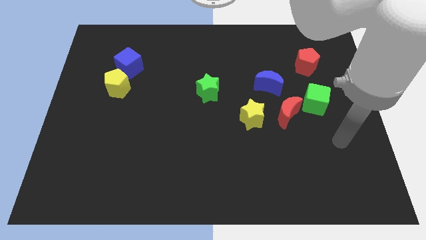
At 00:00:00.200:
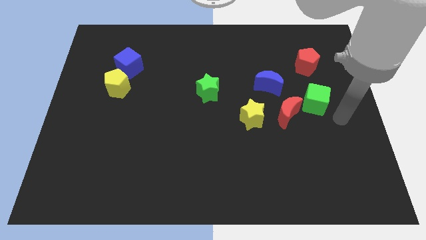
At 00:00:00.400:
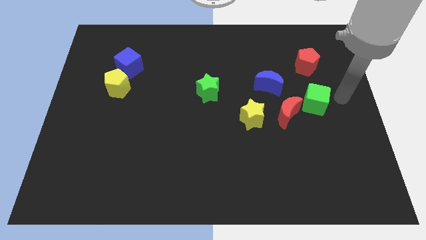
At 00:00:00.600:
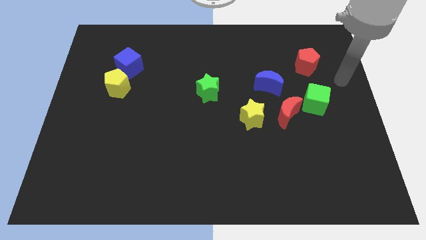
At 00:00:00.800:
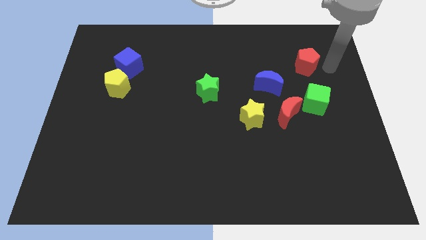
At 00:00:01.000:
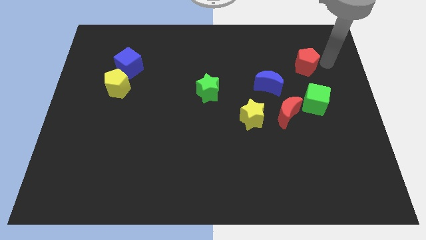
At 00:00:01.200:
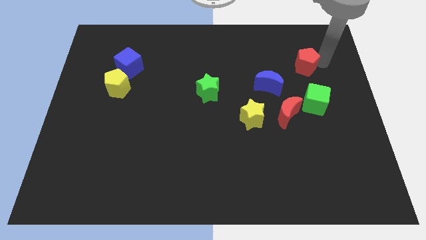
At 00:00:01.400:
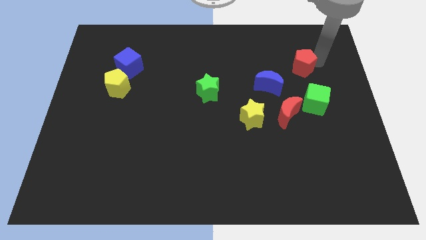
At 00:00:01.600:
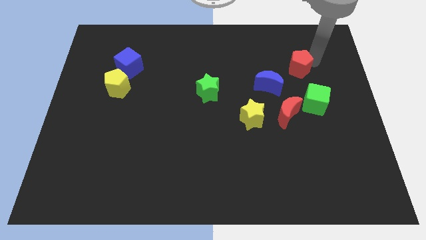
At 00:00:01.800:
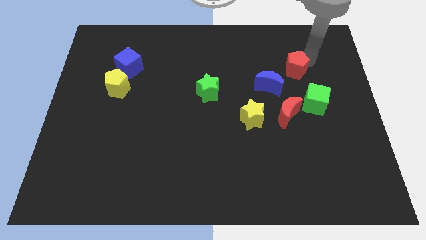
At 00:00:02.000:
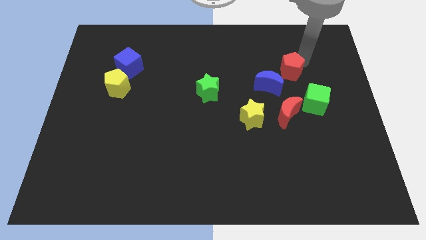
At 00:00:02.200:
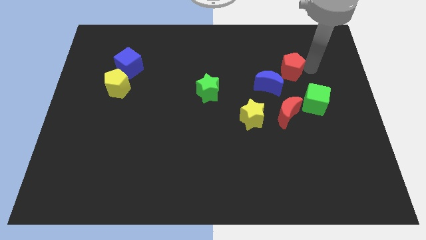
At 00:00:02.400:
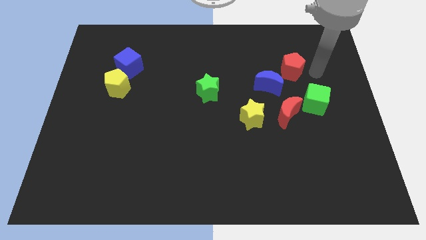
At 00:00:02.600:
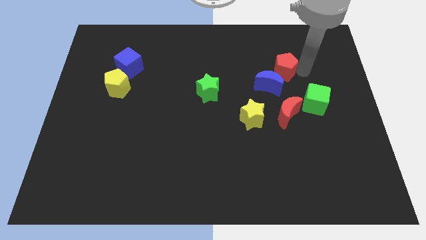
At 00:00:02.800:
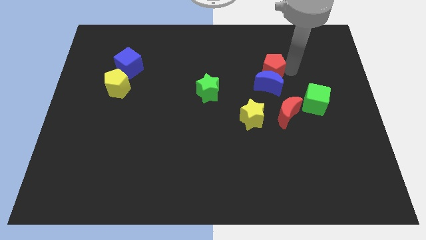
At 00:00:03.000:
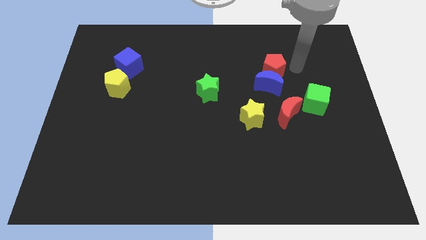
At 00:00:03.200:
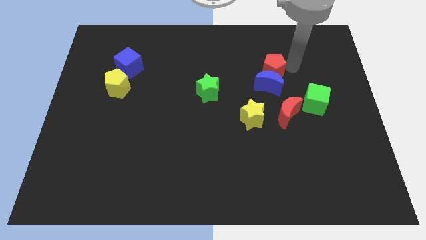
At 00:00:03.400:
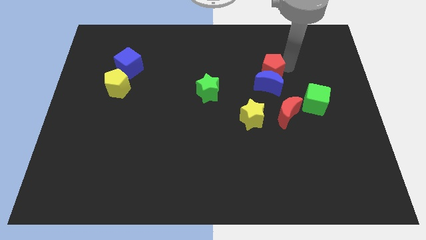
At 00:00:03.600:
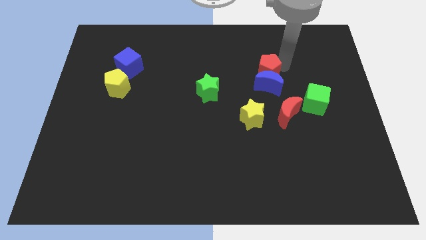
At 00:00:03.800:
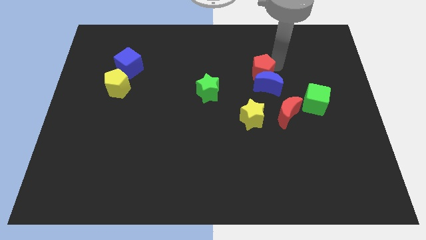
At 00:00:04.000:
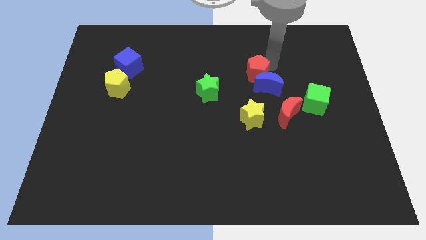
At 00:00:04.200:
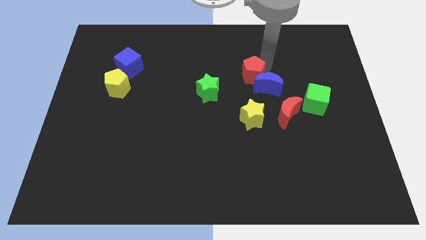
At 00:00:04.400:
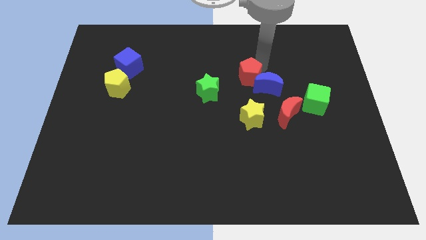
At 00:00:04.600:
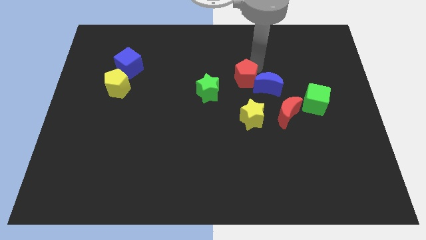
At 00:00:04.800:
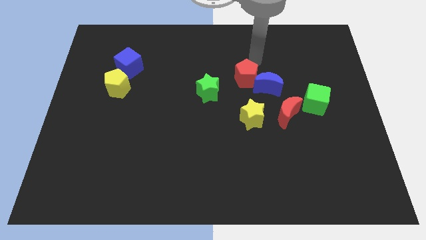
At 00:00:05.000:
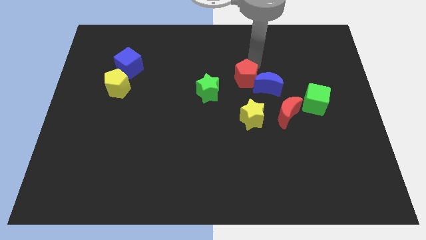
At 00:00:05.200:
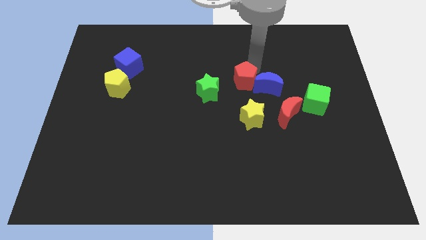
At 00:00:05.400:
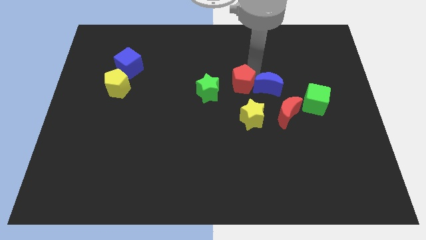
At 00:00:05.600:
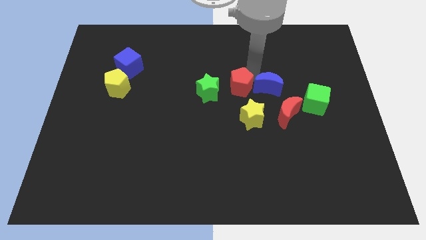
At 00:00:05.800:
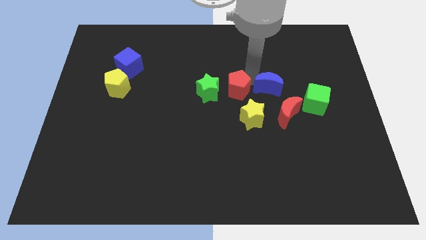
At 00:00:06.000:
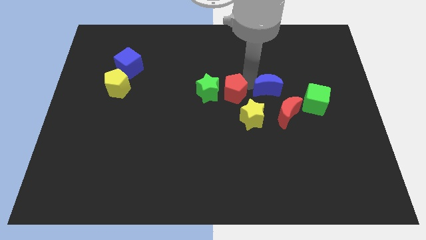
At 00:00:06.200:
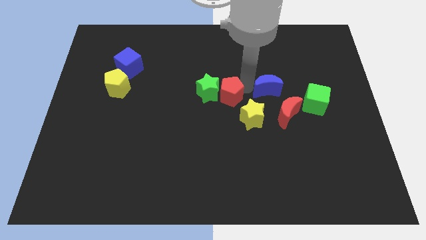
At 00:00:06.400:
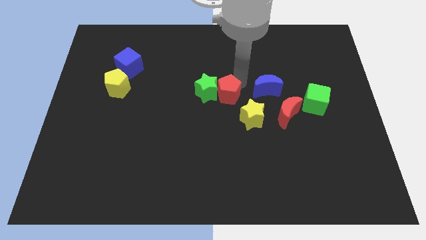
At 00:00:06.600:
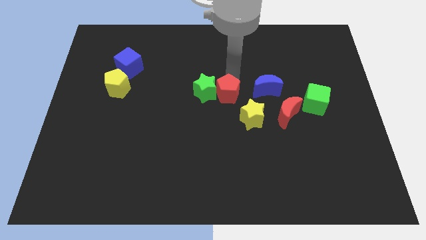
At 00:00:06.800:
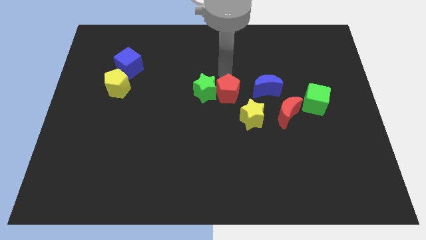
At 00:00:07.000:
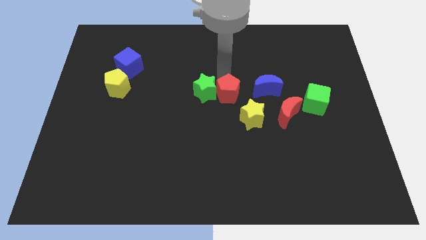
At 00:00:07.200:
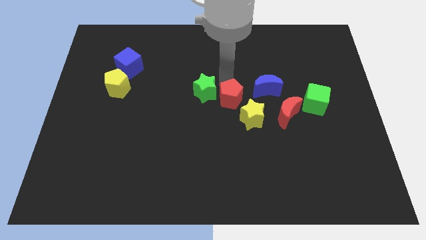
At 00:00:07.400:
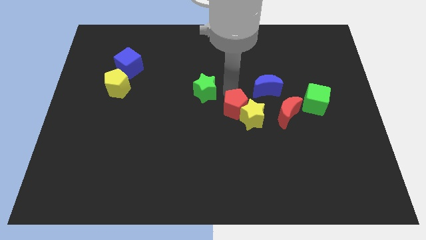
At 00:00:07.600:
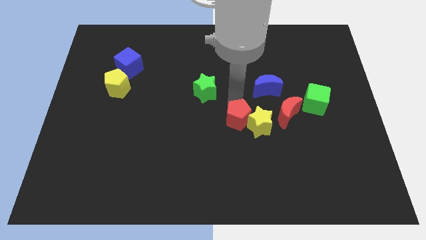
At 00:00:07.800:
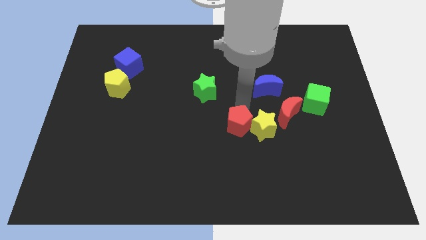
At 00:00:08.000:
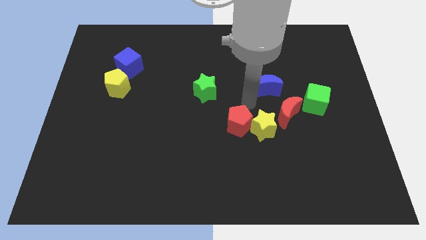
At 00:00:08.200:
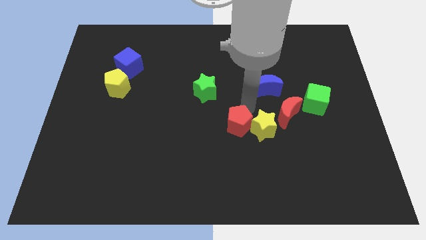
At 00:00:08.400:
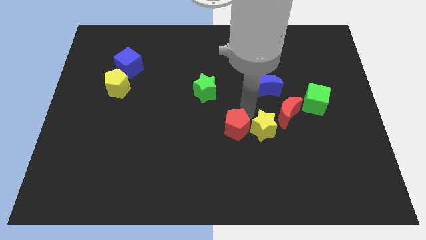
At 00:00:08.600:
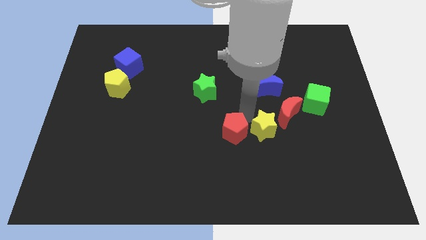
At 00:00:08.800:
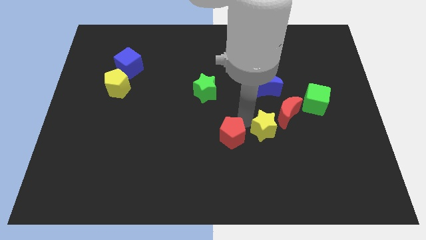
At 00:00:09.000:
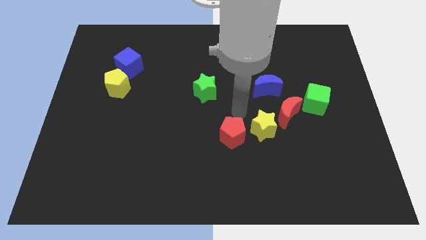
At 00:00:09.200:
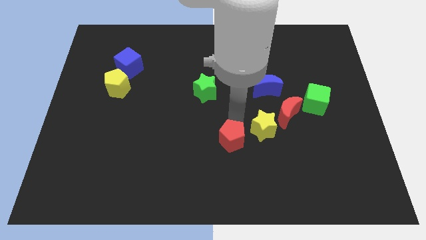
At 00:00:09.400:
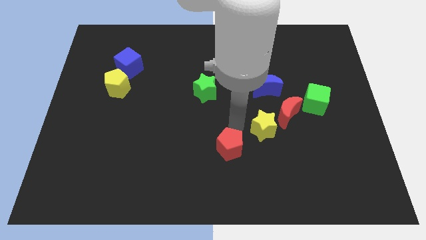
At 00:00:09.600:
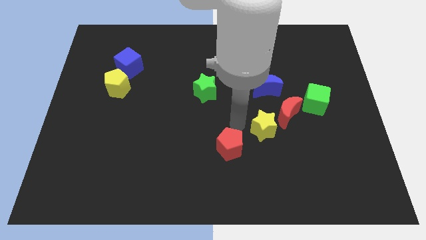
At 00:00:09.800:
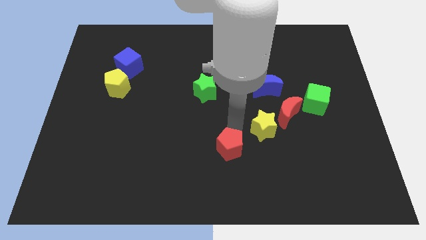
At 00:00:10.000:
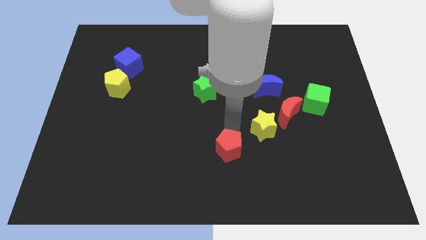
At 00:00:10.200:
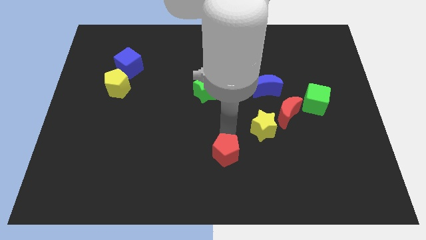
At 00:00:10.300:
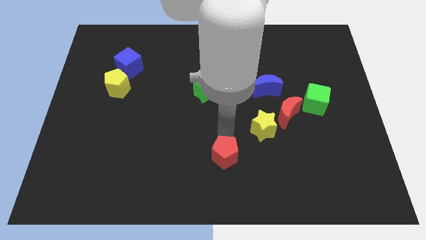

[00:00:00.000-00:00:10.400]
move the red pentagon to the bottom side

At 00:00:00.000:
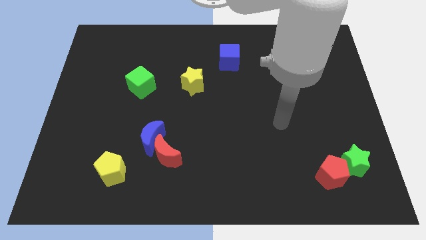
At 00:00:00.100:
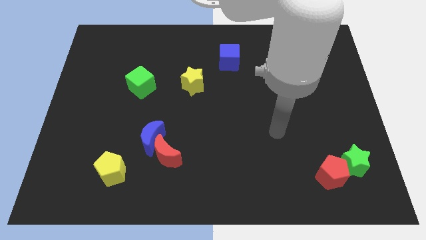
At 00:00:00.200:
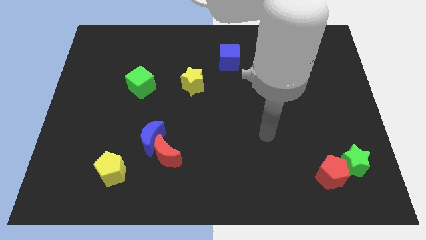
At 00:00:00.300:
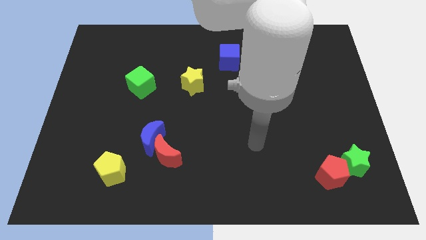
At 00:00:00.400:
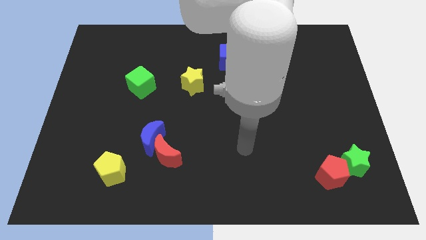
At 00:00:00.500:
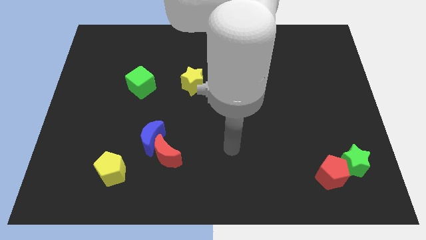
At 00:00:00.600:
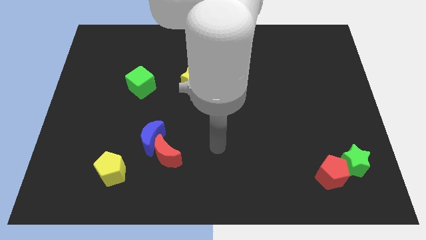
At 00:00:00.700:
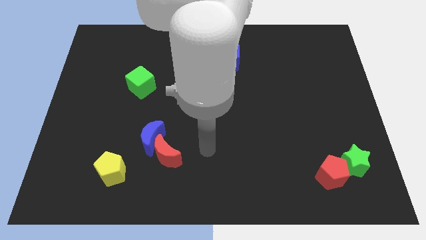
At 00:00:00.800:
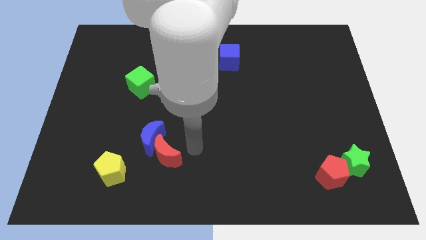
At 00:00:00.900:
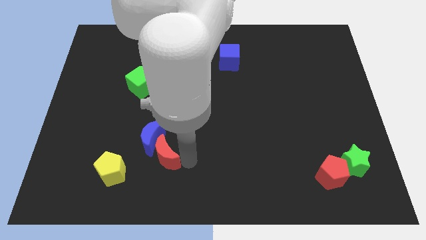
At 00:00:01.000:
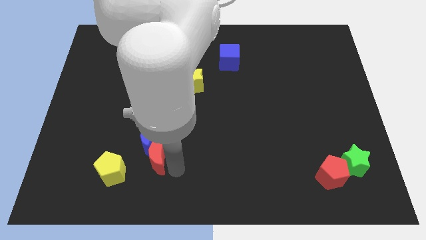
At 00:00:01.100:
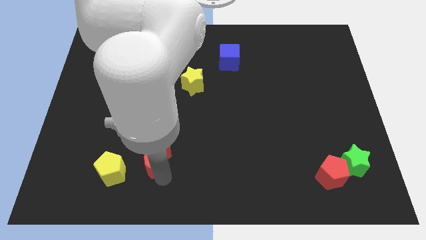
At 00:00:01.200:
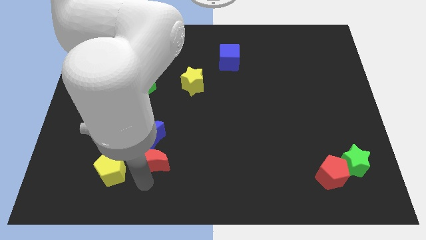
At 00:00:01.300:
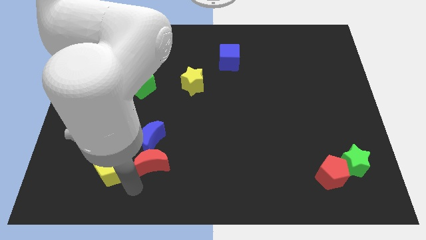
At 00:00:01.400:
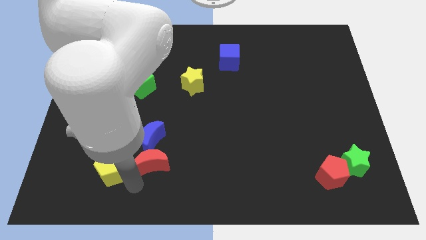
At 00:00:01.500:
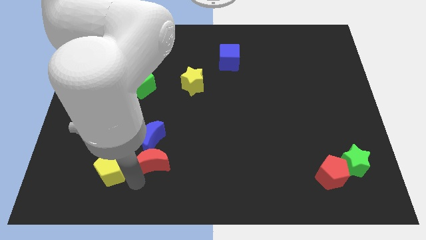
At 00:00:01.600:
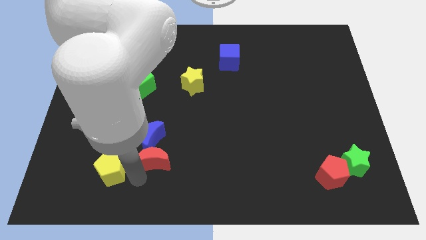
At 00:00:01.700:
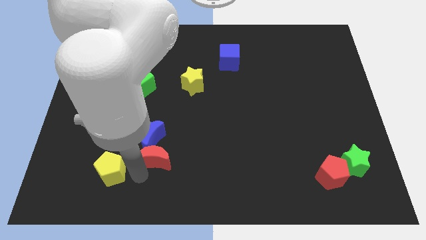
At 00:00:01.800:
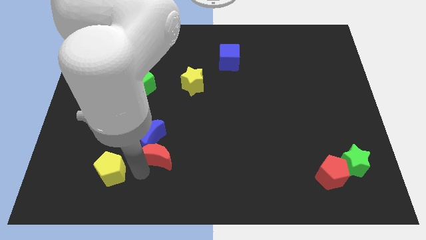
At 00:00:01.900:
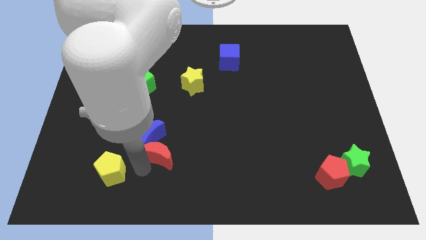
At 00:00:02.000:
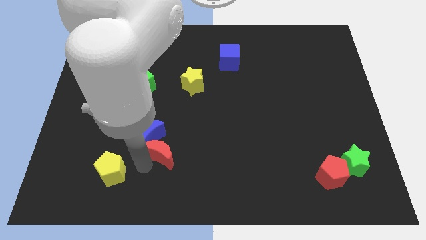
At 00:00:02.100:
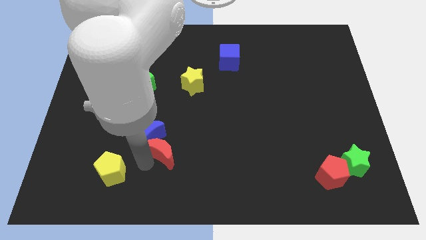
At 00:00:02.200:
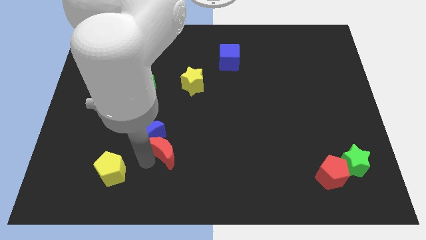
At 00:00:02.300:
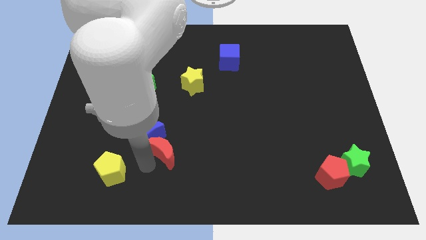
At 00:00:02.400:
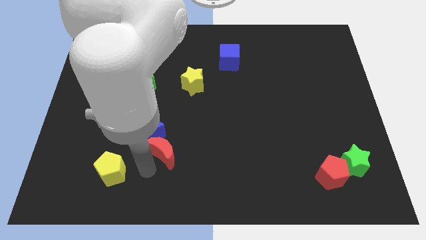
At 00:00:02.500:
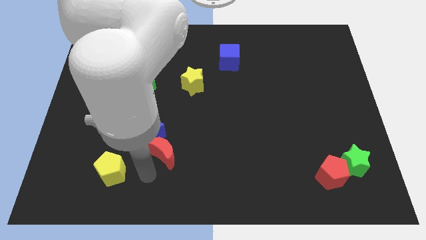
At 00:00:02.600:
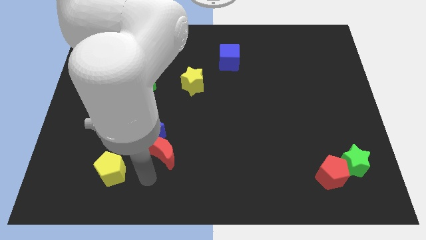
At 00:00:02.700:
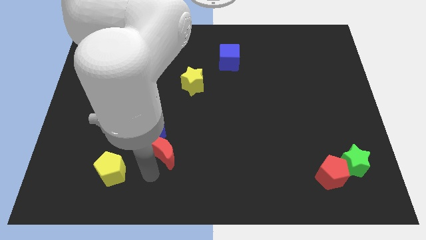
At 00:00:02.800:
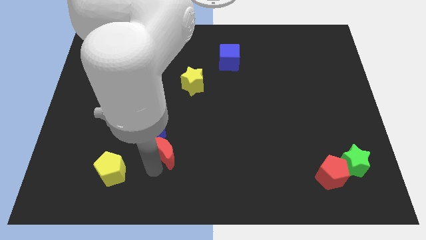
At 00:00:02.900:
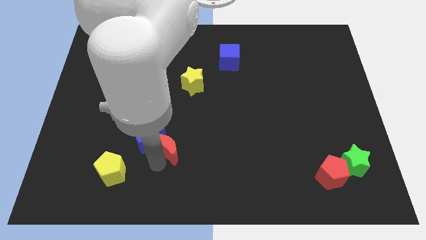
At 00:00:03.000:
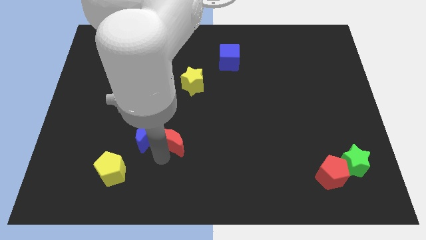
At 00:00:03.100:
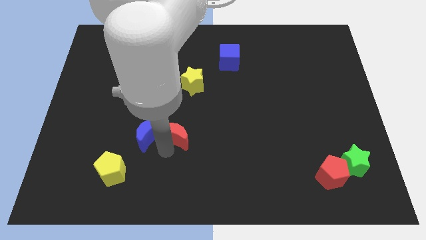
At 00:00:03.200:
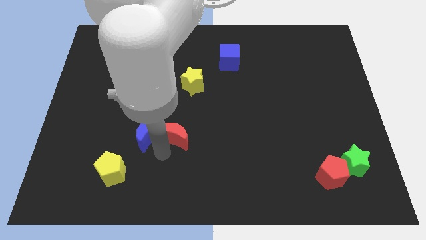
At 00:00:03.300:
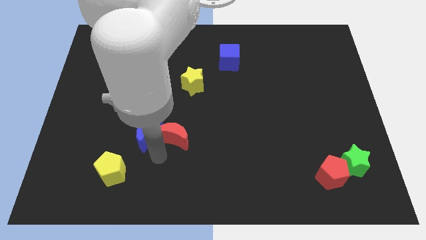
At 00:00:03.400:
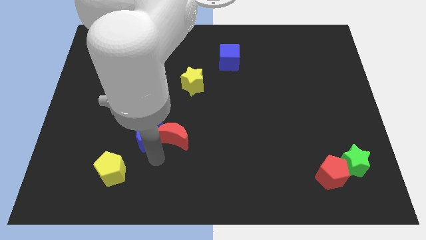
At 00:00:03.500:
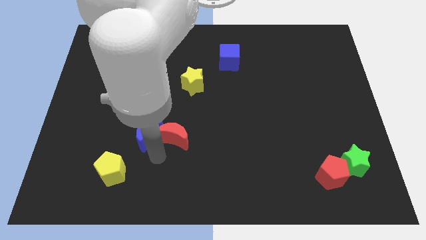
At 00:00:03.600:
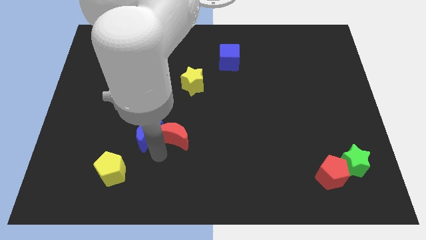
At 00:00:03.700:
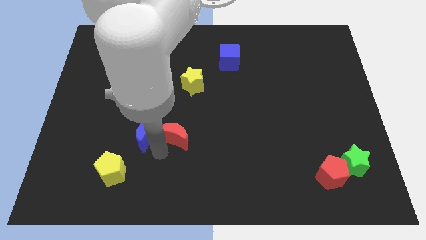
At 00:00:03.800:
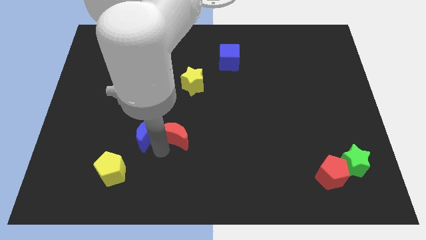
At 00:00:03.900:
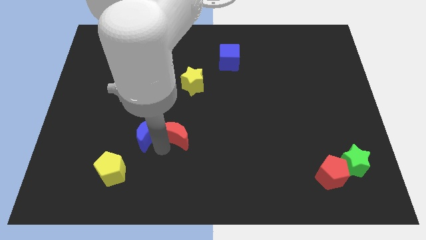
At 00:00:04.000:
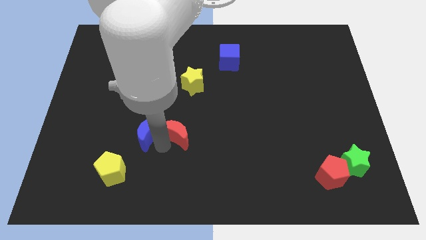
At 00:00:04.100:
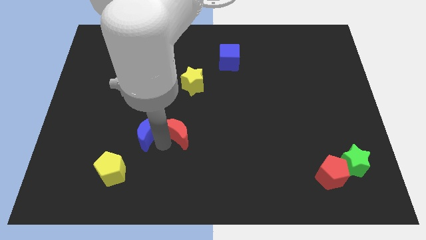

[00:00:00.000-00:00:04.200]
move the red moon to the center
